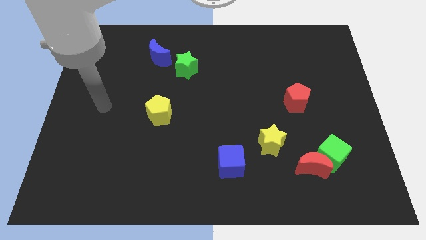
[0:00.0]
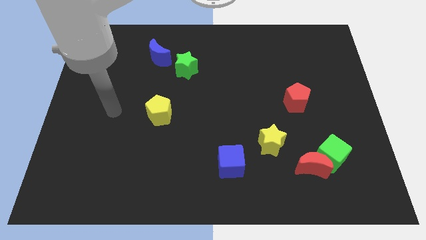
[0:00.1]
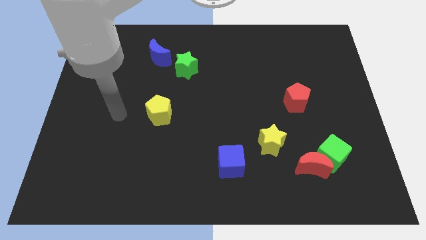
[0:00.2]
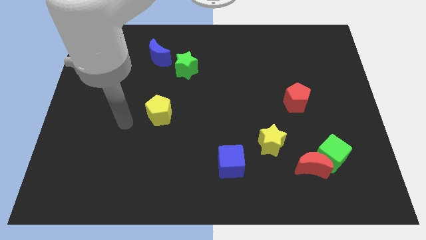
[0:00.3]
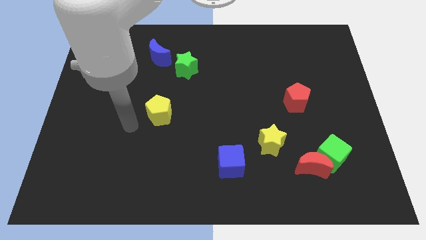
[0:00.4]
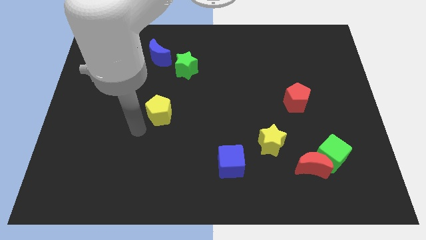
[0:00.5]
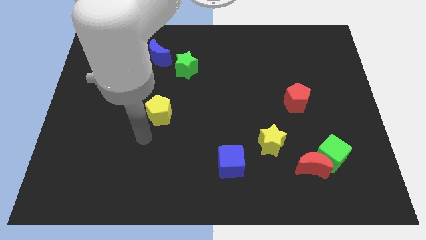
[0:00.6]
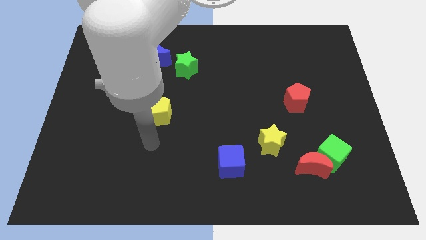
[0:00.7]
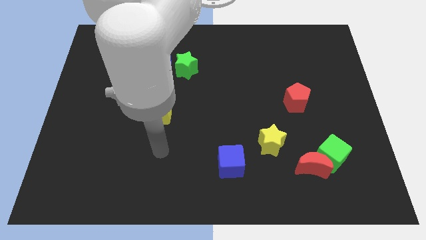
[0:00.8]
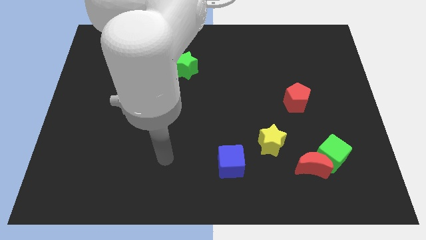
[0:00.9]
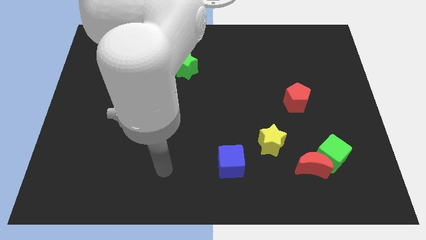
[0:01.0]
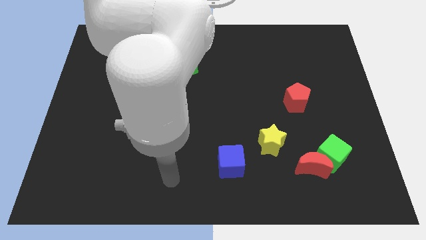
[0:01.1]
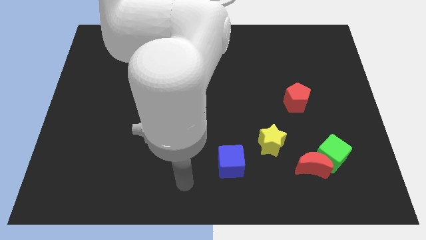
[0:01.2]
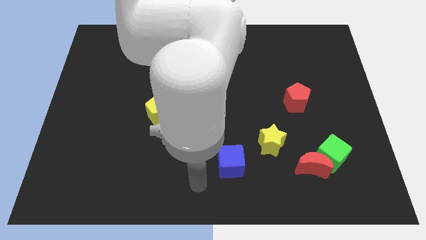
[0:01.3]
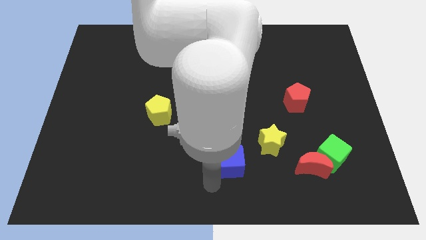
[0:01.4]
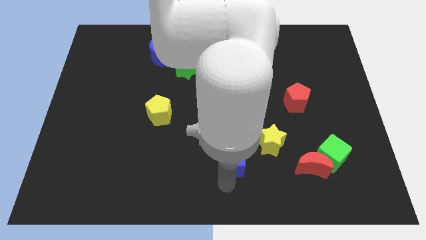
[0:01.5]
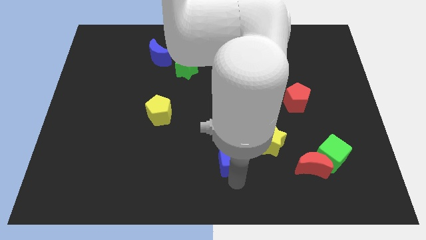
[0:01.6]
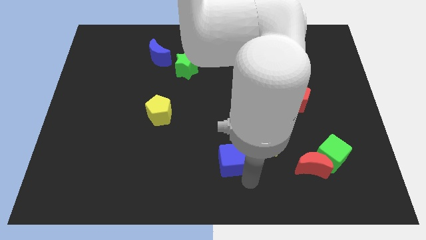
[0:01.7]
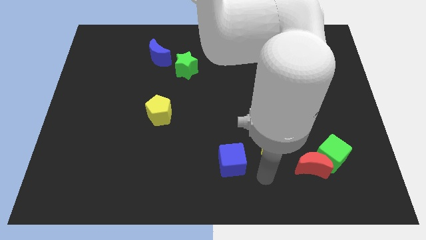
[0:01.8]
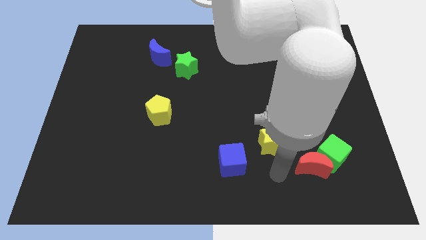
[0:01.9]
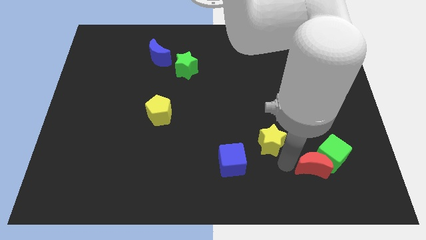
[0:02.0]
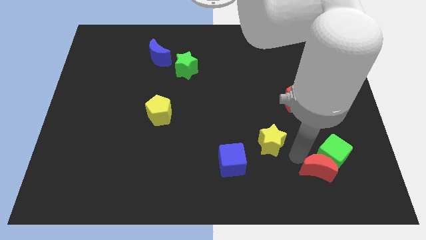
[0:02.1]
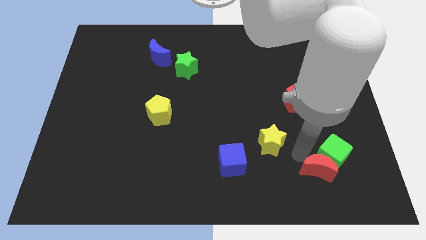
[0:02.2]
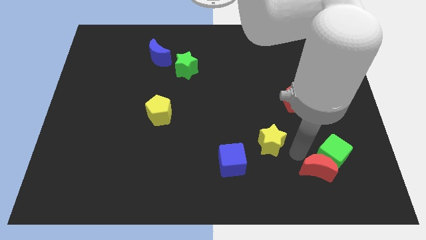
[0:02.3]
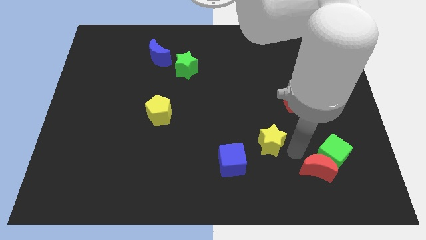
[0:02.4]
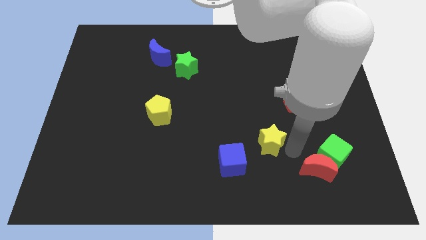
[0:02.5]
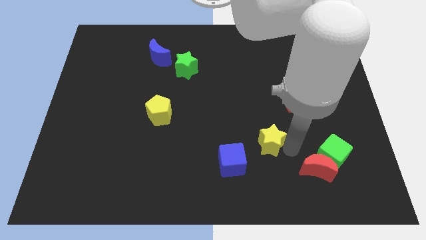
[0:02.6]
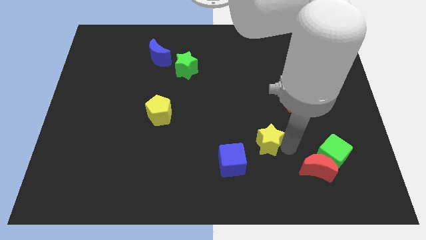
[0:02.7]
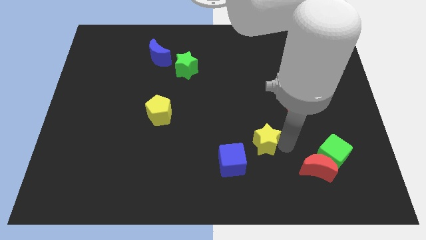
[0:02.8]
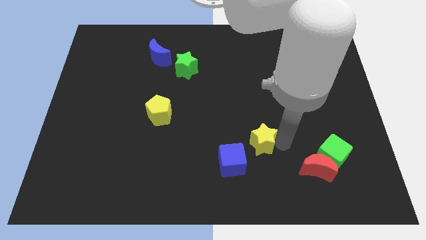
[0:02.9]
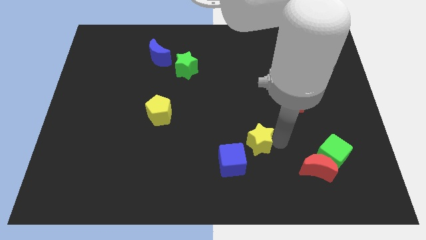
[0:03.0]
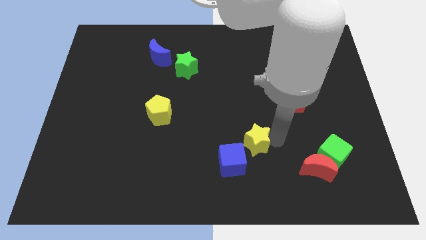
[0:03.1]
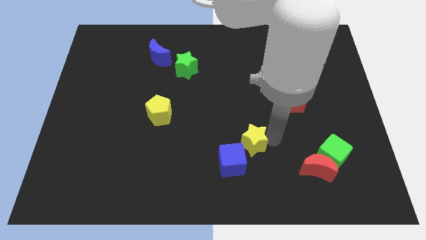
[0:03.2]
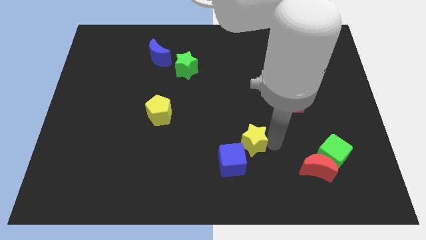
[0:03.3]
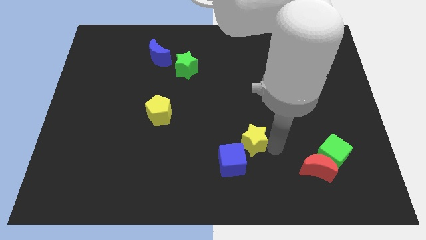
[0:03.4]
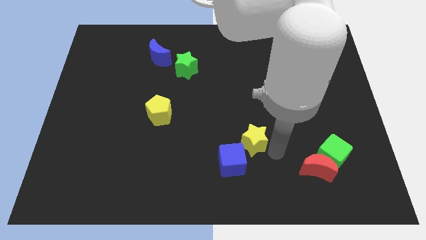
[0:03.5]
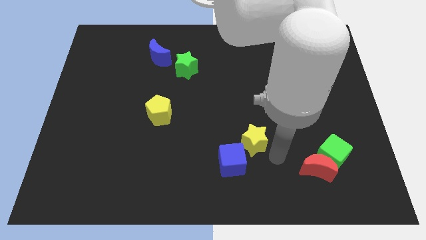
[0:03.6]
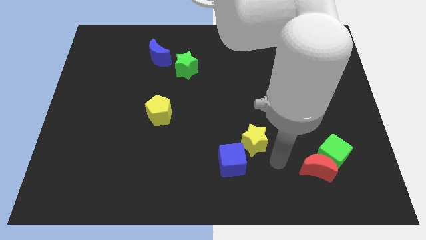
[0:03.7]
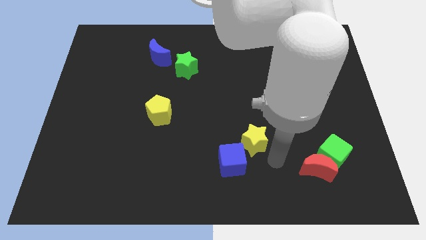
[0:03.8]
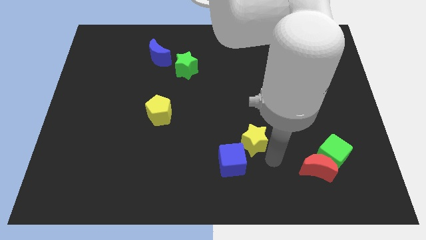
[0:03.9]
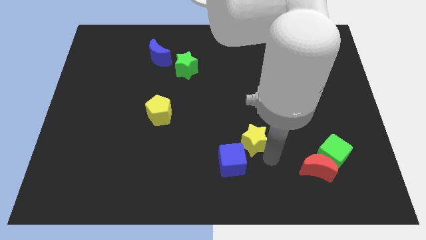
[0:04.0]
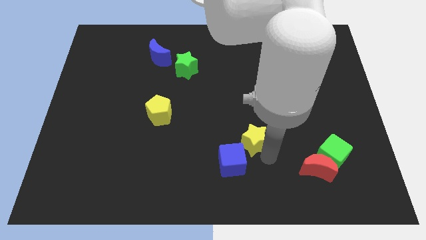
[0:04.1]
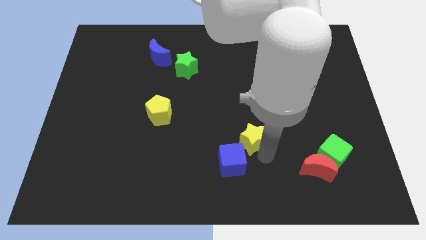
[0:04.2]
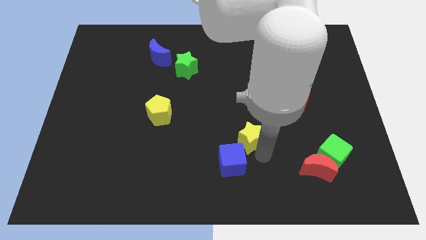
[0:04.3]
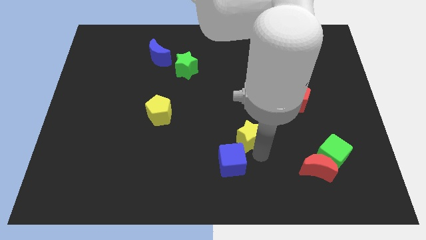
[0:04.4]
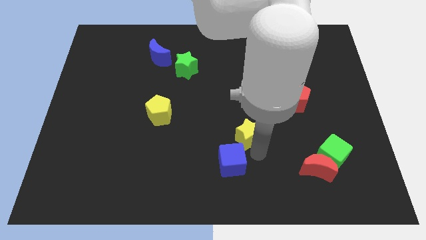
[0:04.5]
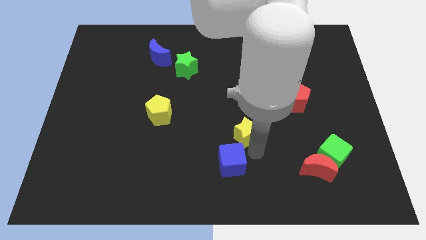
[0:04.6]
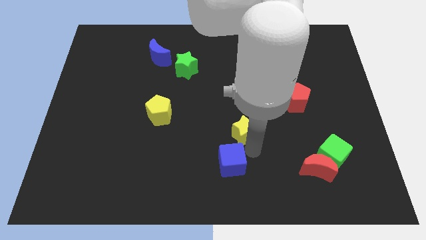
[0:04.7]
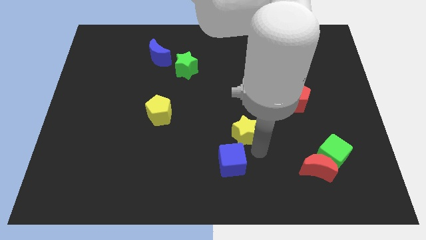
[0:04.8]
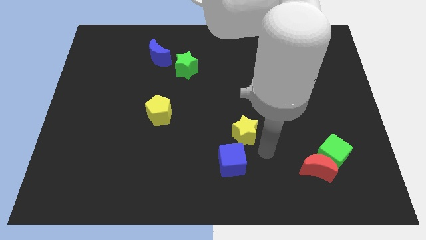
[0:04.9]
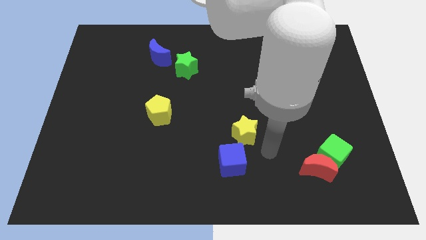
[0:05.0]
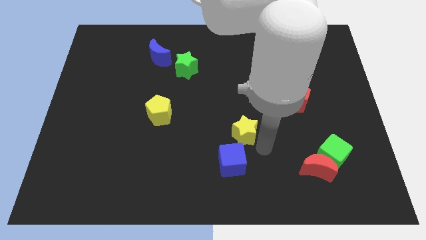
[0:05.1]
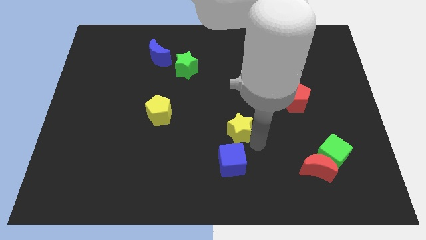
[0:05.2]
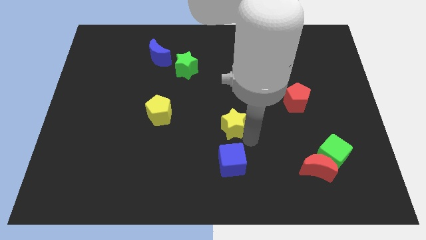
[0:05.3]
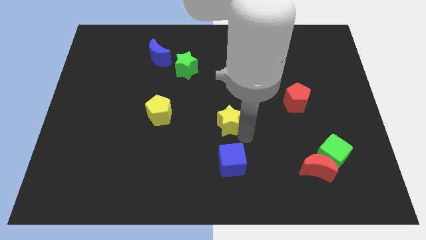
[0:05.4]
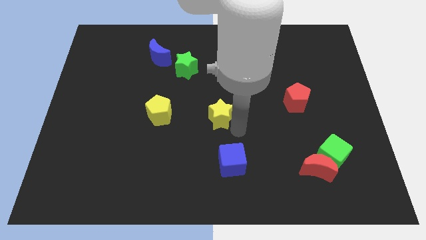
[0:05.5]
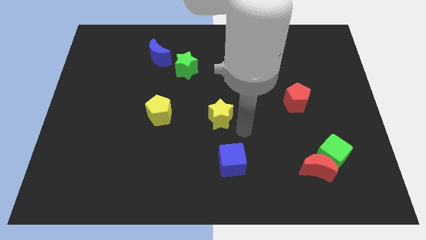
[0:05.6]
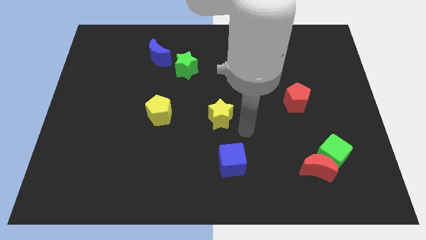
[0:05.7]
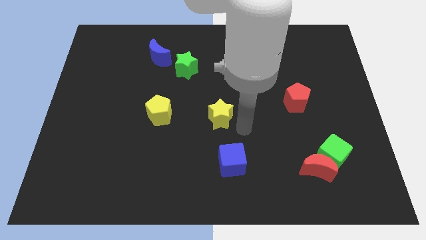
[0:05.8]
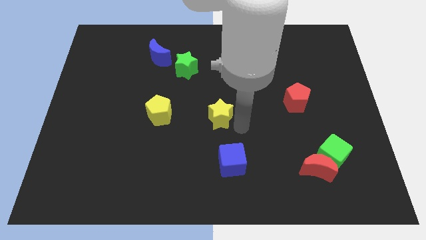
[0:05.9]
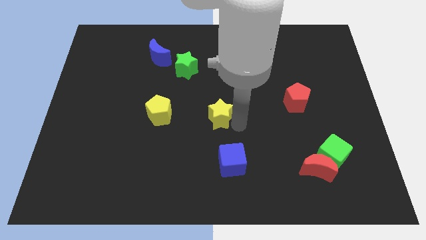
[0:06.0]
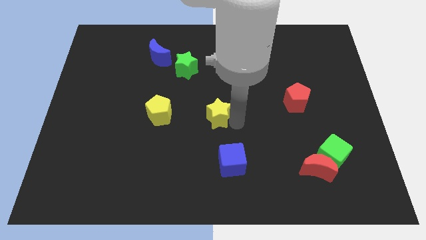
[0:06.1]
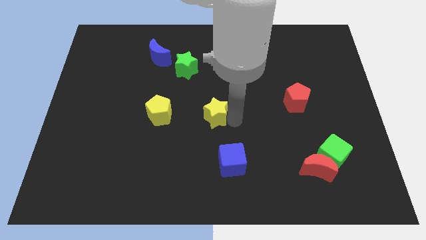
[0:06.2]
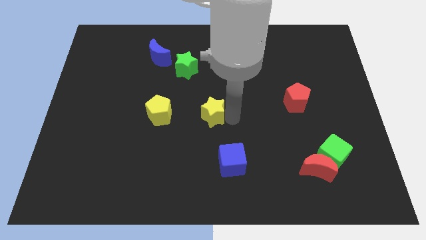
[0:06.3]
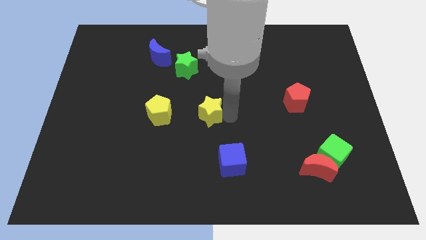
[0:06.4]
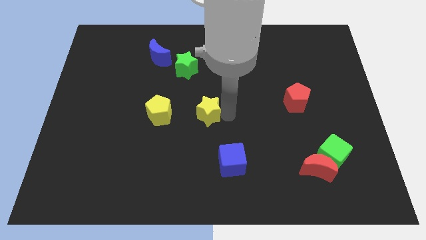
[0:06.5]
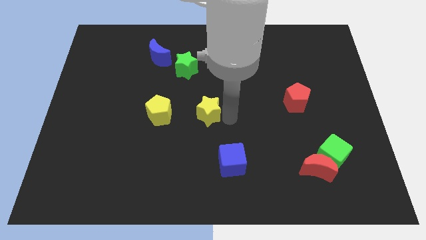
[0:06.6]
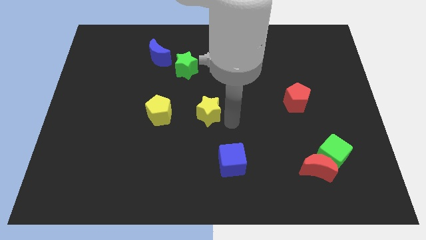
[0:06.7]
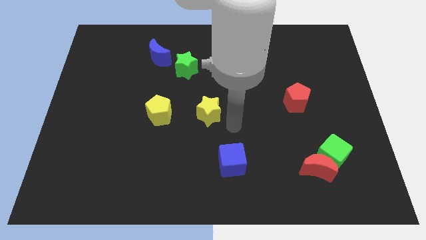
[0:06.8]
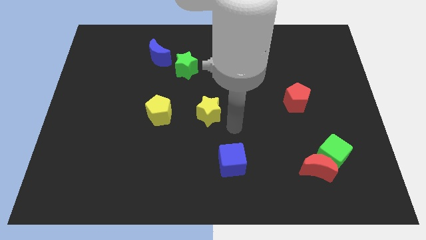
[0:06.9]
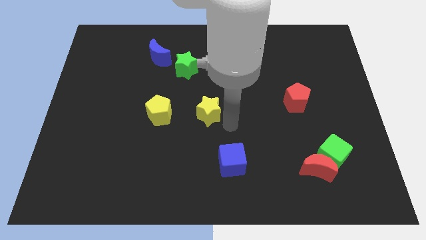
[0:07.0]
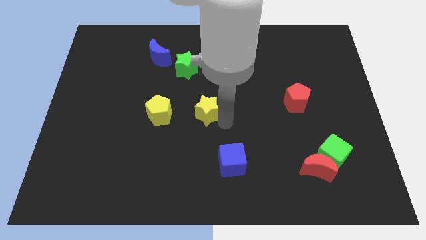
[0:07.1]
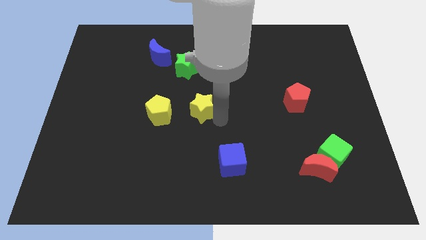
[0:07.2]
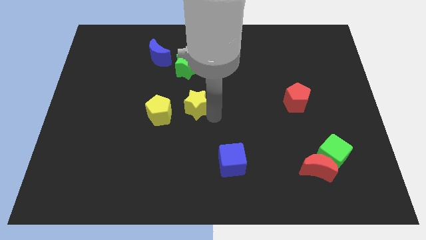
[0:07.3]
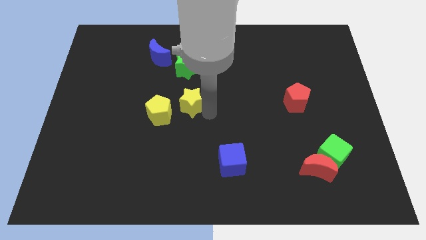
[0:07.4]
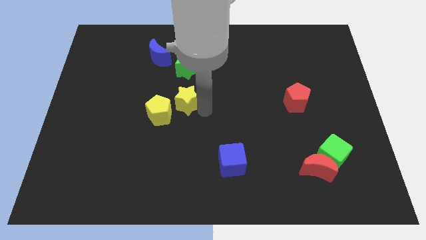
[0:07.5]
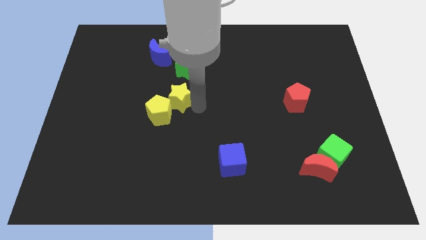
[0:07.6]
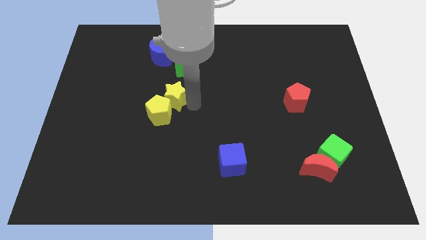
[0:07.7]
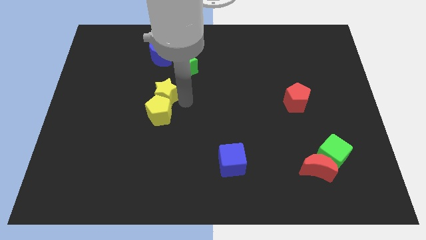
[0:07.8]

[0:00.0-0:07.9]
move the yellow star to the top left side of the yellow pentagon
